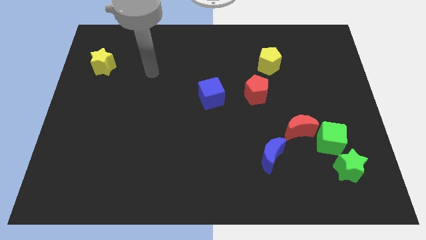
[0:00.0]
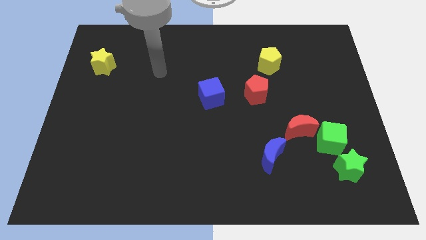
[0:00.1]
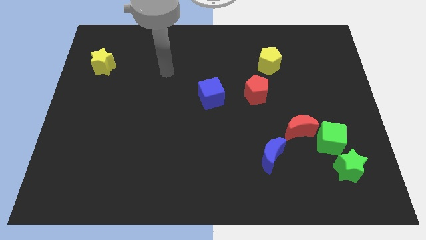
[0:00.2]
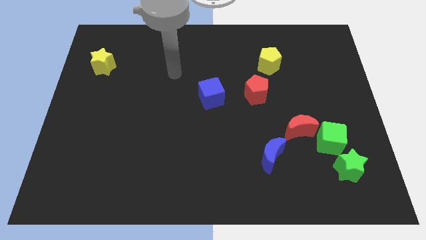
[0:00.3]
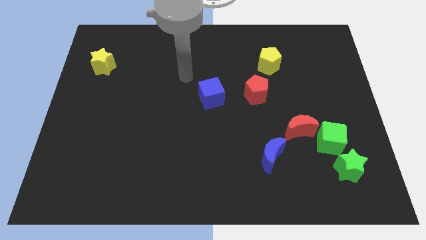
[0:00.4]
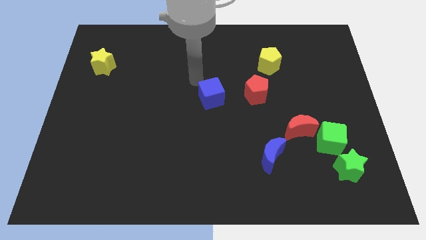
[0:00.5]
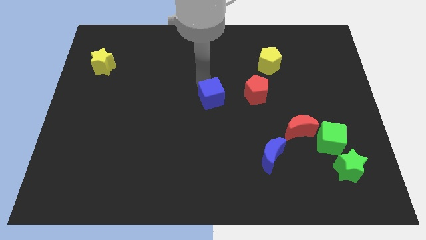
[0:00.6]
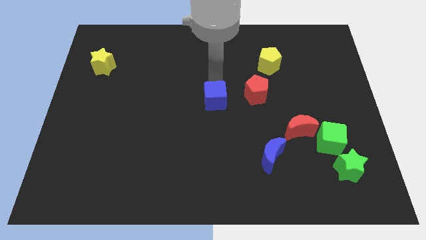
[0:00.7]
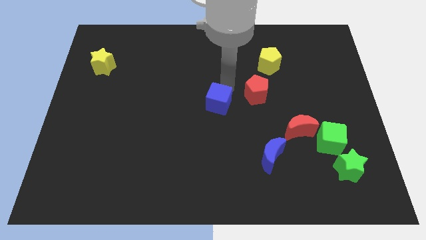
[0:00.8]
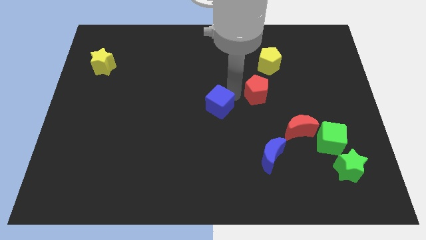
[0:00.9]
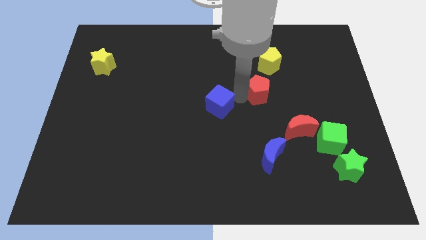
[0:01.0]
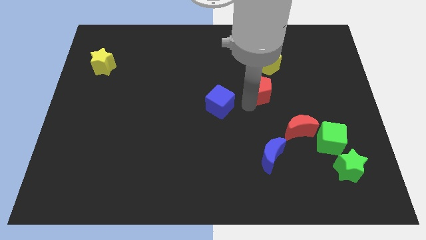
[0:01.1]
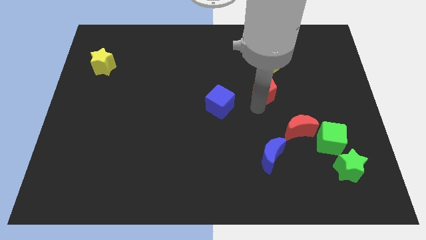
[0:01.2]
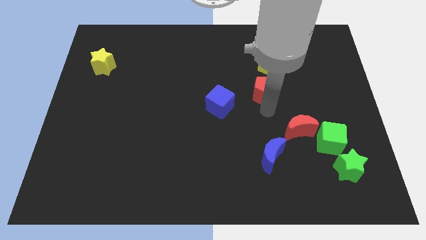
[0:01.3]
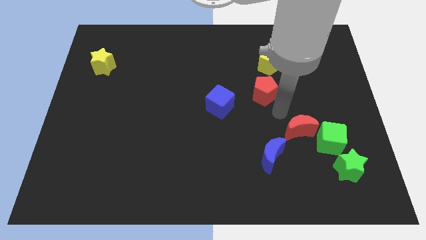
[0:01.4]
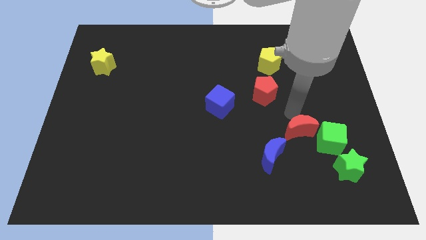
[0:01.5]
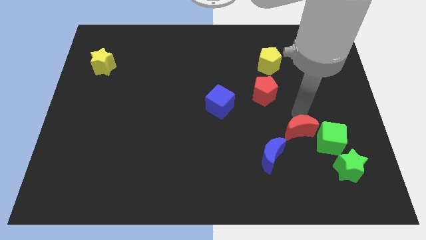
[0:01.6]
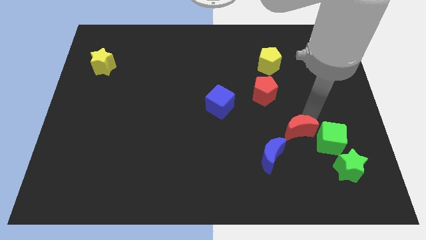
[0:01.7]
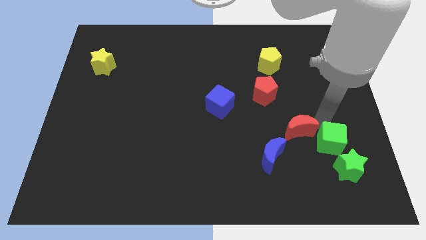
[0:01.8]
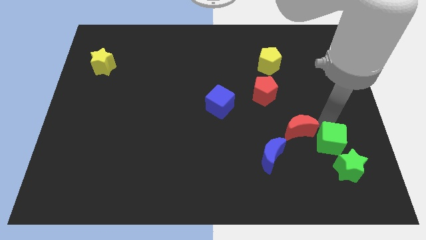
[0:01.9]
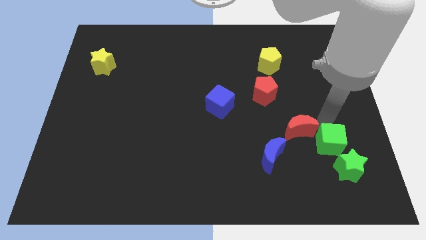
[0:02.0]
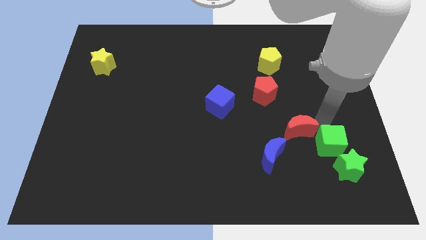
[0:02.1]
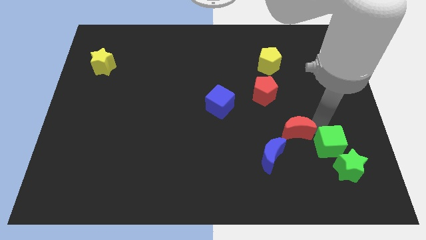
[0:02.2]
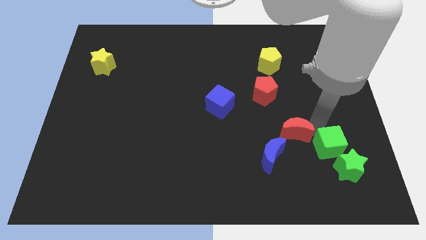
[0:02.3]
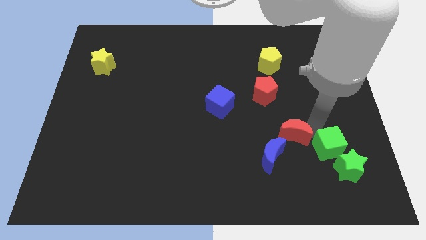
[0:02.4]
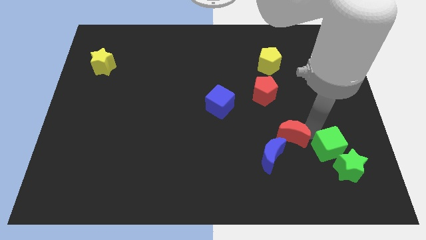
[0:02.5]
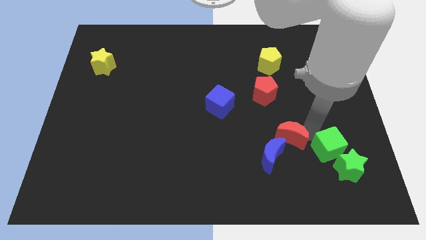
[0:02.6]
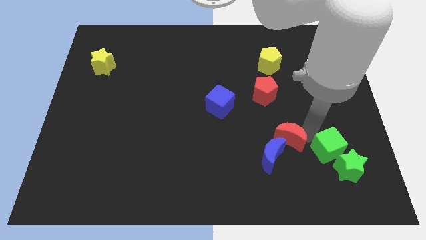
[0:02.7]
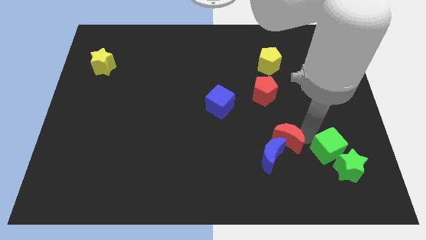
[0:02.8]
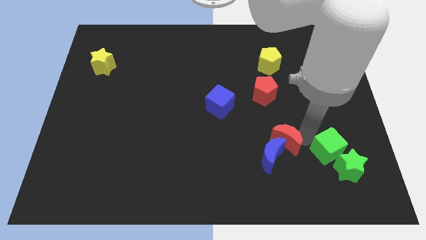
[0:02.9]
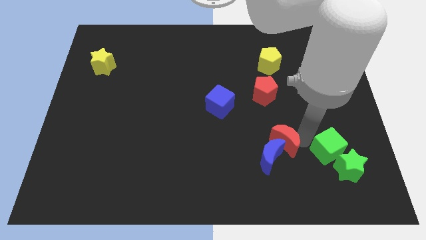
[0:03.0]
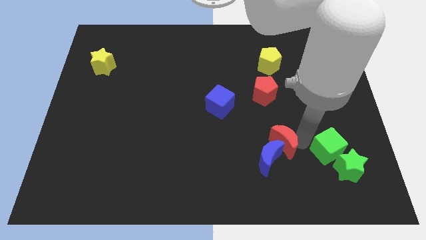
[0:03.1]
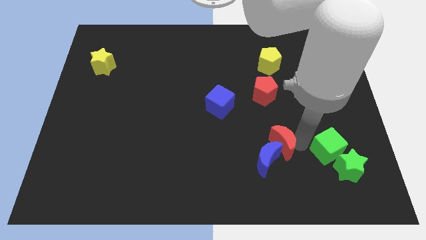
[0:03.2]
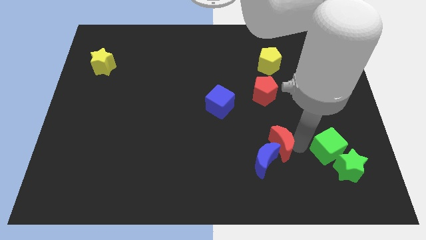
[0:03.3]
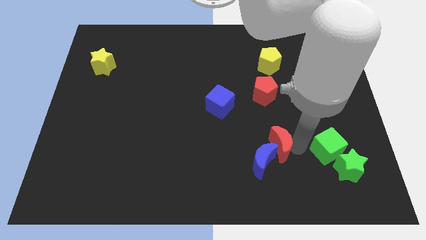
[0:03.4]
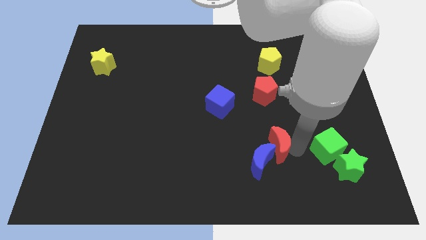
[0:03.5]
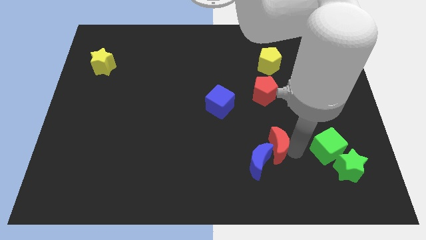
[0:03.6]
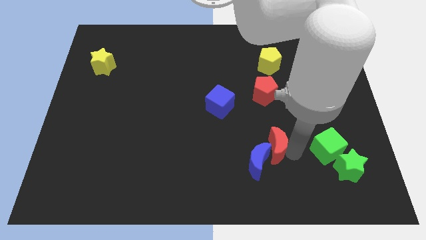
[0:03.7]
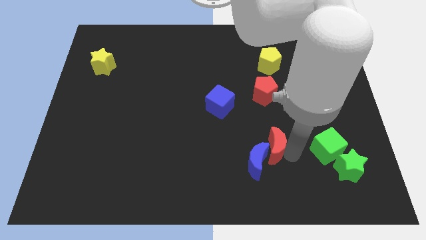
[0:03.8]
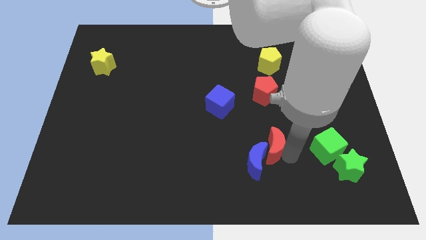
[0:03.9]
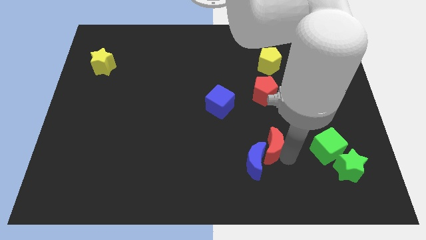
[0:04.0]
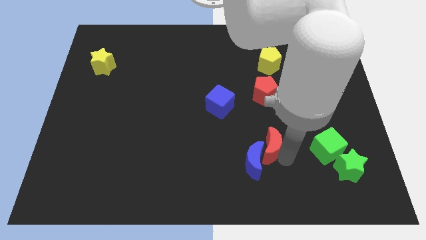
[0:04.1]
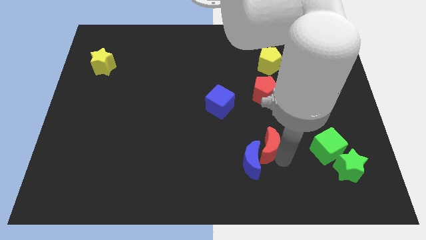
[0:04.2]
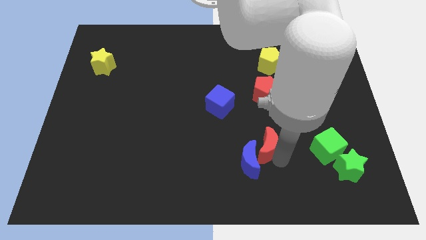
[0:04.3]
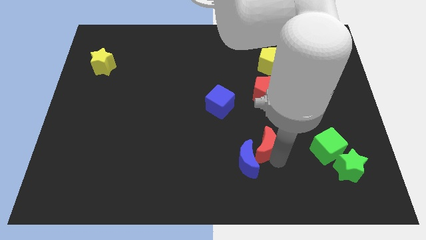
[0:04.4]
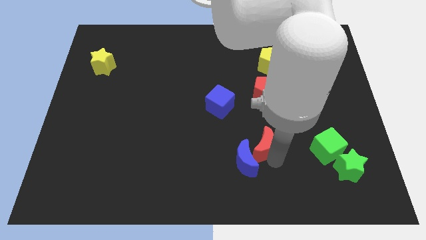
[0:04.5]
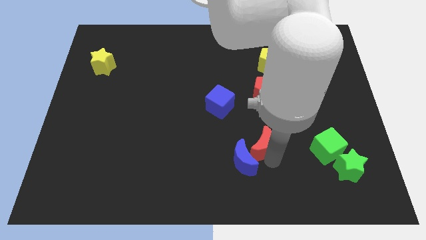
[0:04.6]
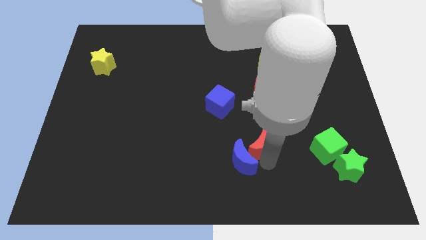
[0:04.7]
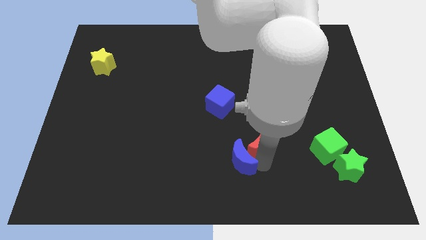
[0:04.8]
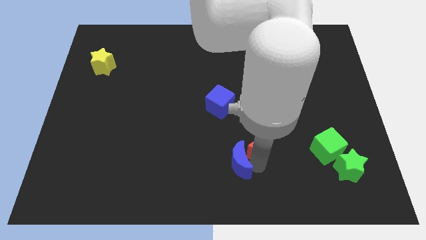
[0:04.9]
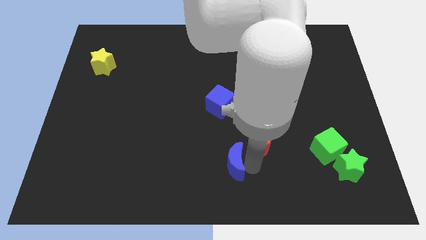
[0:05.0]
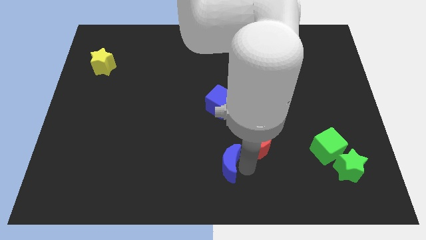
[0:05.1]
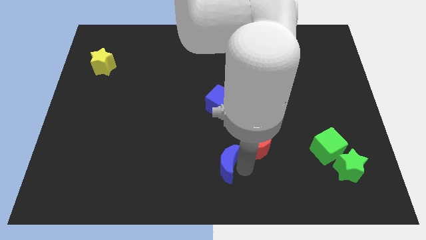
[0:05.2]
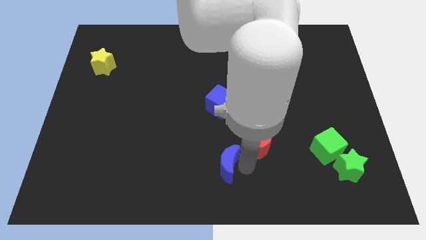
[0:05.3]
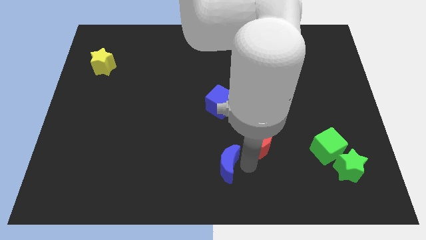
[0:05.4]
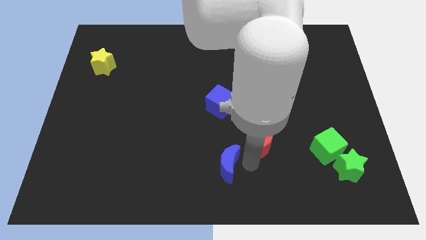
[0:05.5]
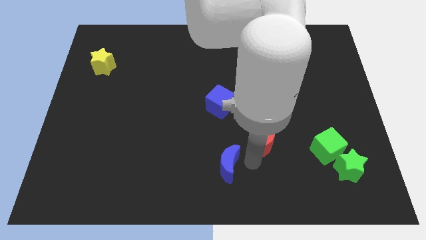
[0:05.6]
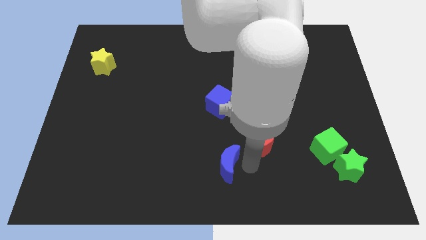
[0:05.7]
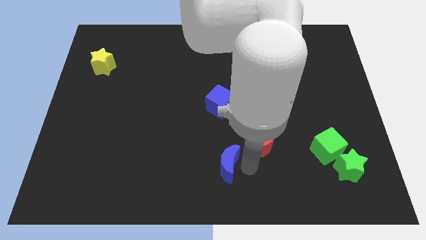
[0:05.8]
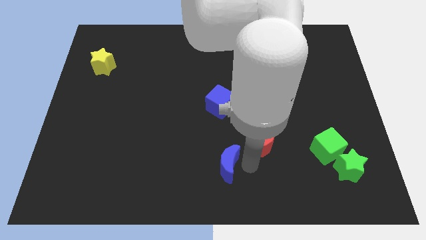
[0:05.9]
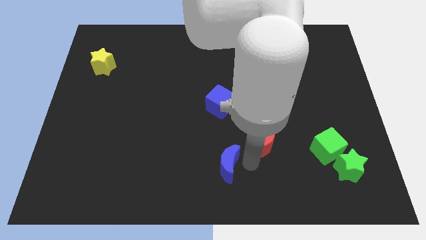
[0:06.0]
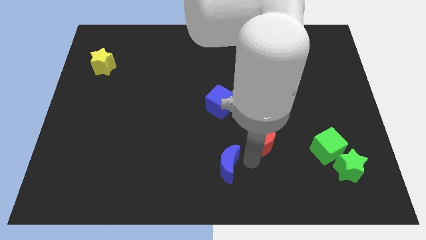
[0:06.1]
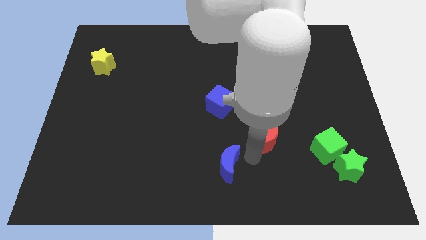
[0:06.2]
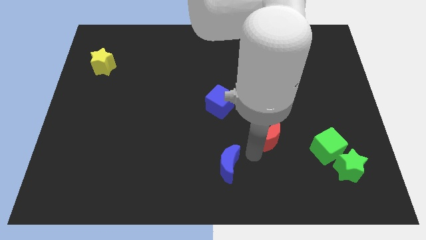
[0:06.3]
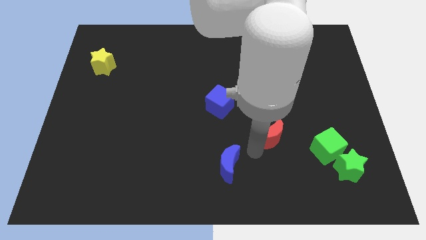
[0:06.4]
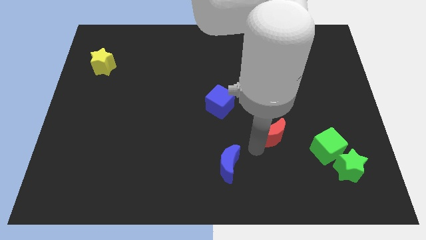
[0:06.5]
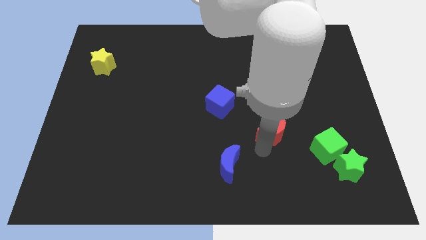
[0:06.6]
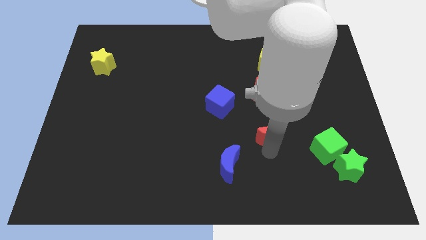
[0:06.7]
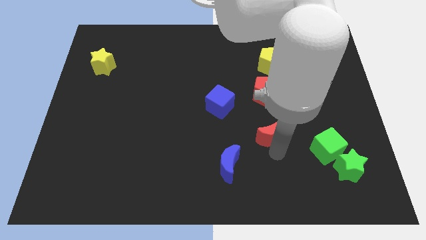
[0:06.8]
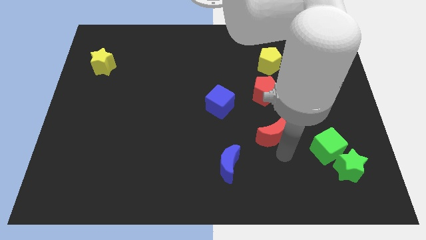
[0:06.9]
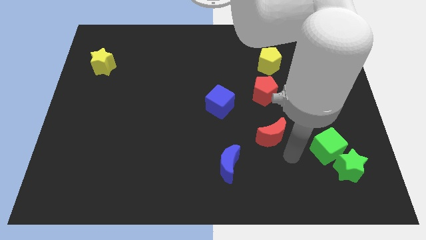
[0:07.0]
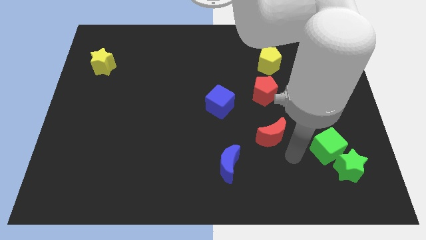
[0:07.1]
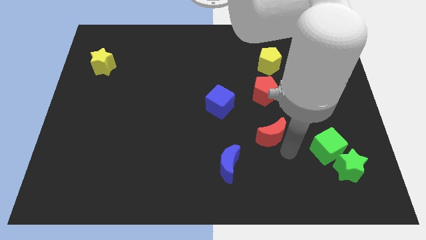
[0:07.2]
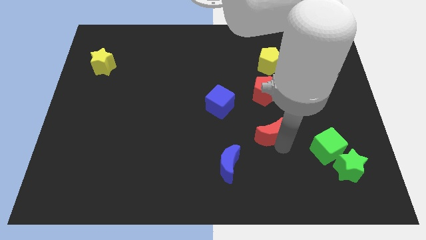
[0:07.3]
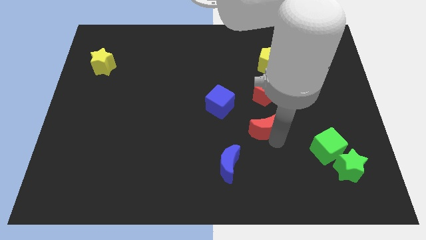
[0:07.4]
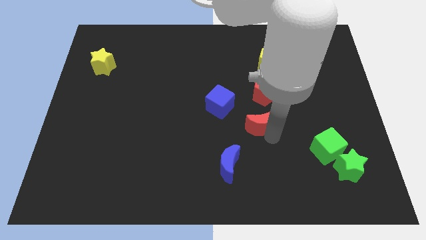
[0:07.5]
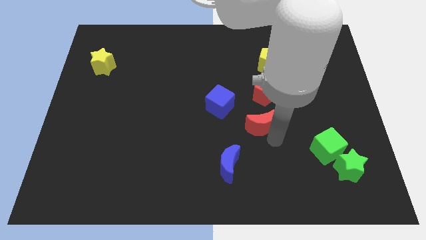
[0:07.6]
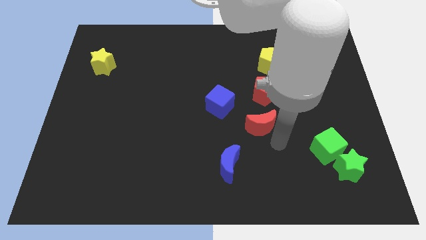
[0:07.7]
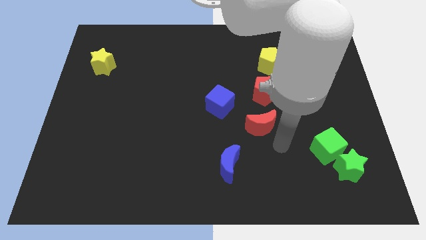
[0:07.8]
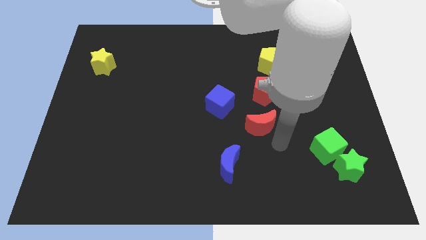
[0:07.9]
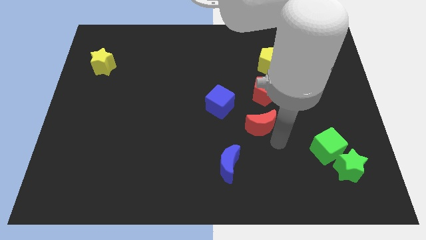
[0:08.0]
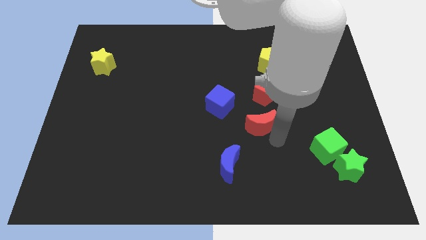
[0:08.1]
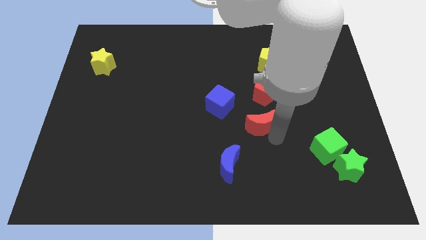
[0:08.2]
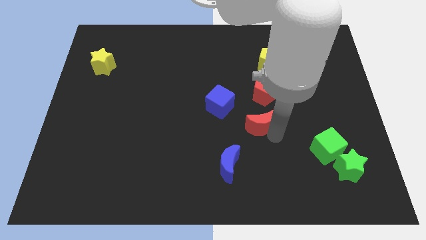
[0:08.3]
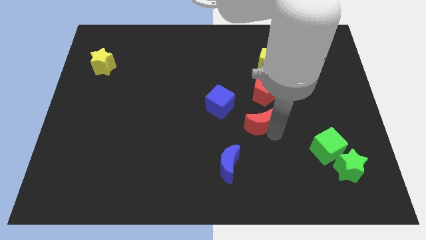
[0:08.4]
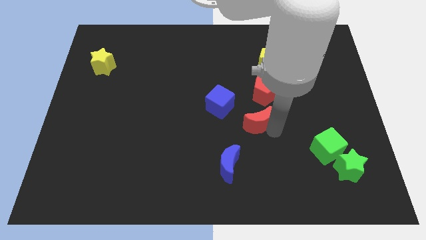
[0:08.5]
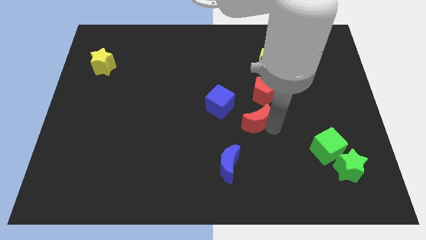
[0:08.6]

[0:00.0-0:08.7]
push the red moon slightly diagonally up and left
